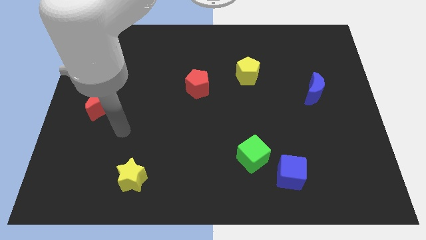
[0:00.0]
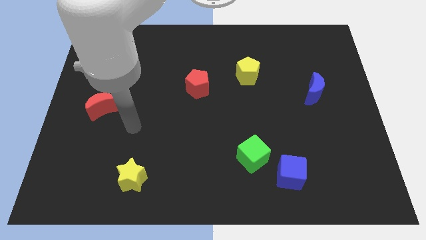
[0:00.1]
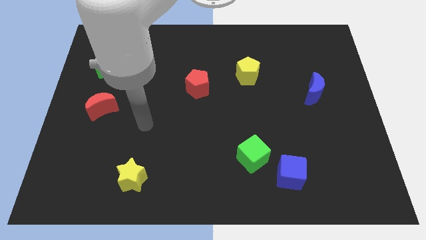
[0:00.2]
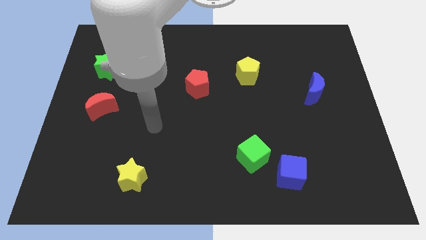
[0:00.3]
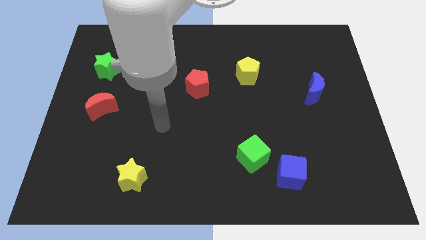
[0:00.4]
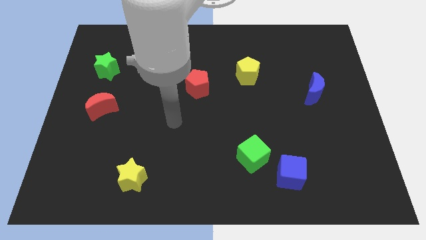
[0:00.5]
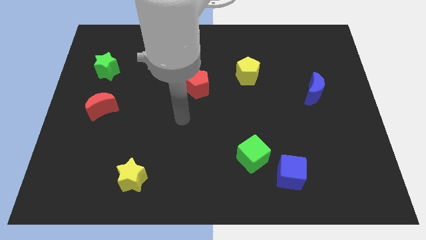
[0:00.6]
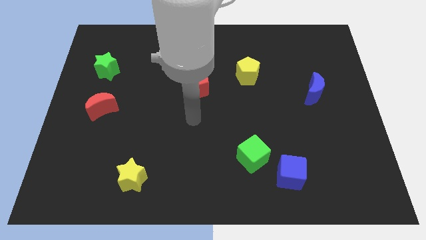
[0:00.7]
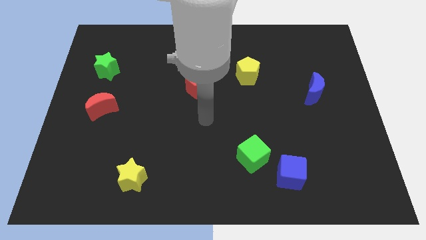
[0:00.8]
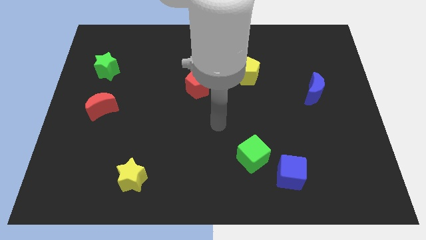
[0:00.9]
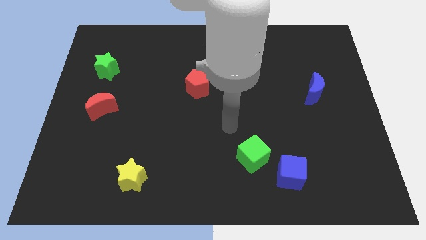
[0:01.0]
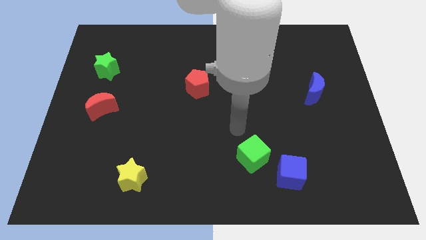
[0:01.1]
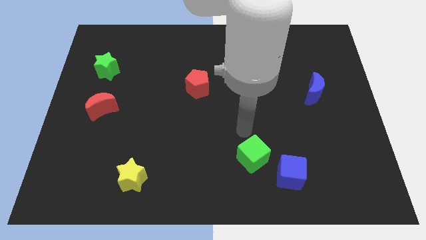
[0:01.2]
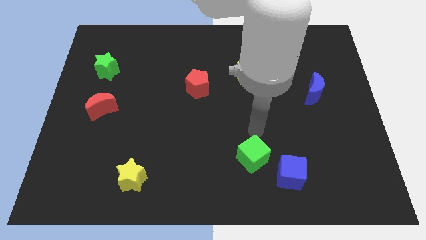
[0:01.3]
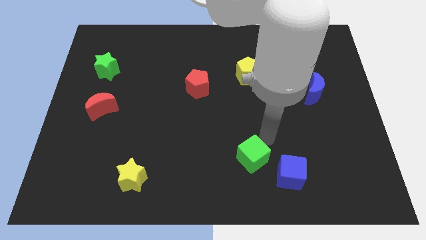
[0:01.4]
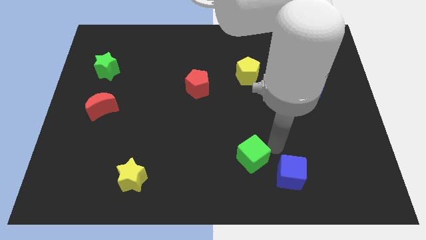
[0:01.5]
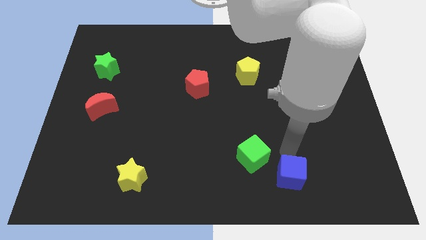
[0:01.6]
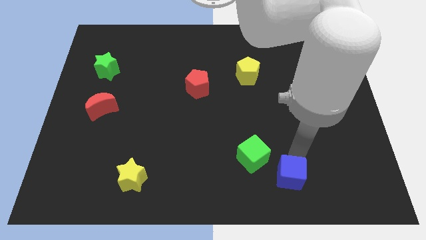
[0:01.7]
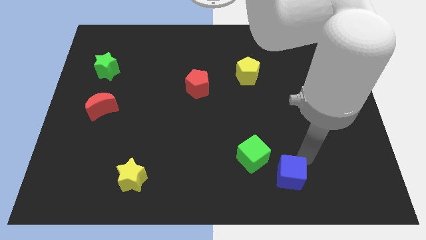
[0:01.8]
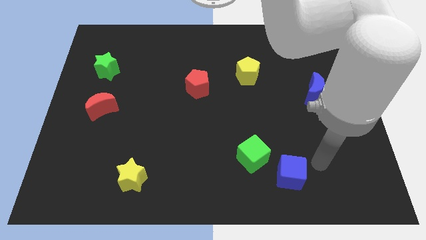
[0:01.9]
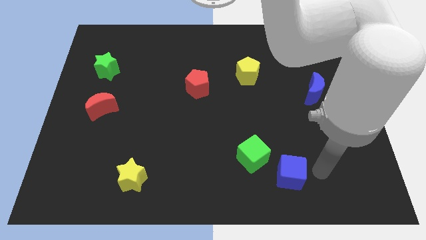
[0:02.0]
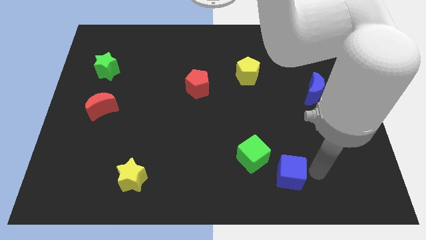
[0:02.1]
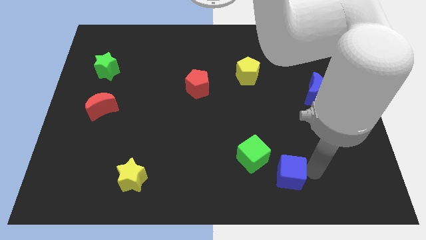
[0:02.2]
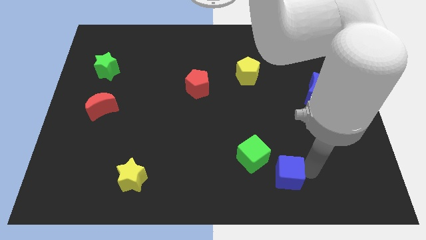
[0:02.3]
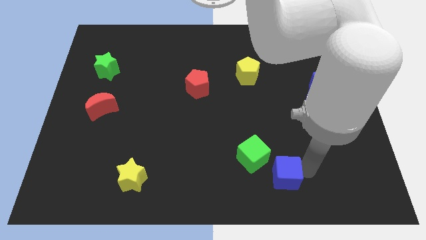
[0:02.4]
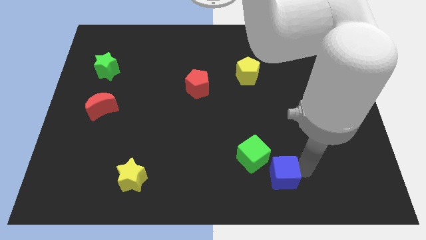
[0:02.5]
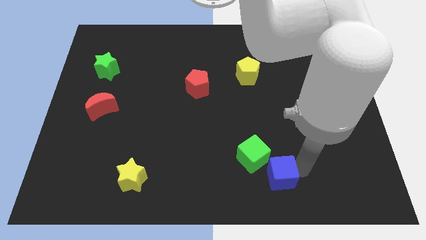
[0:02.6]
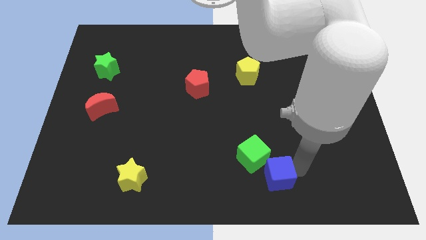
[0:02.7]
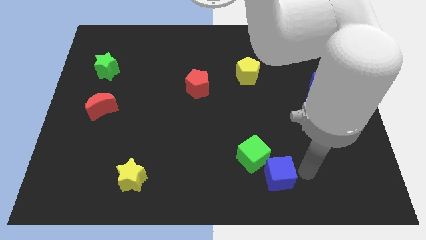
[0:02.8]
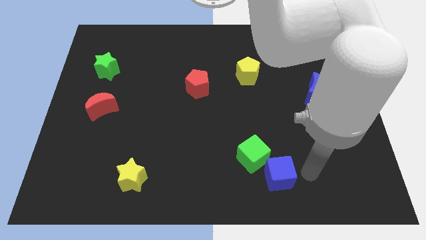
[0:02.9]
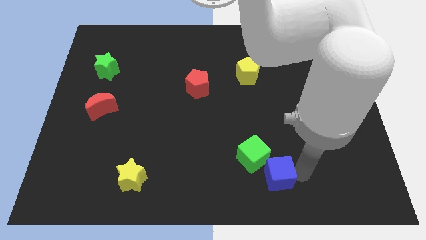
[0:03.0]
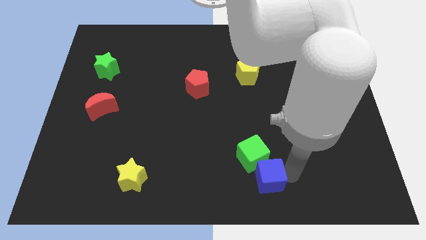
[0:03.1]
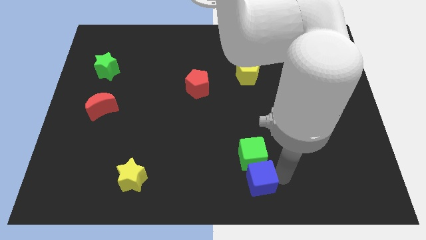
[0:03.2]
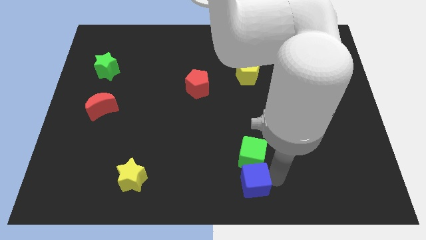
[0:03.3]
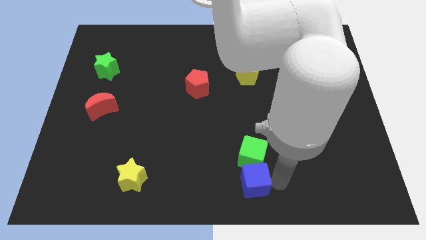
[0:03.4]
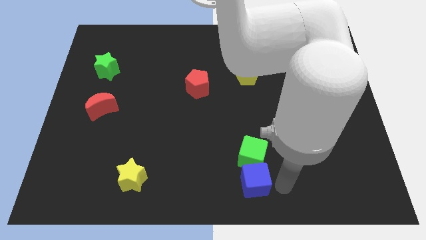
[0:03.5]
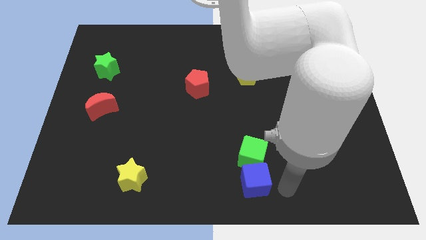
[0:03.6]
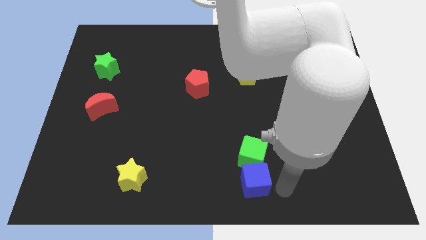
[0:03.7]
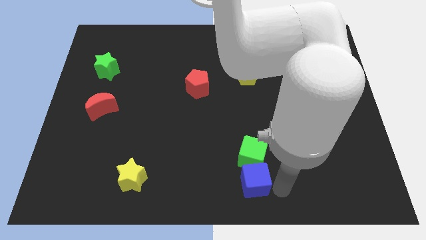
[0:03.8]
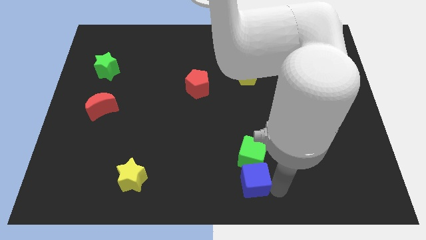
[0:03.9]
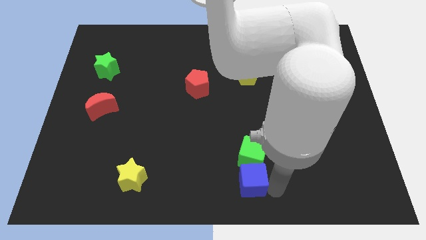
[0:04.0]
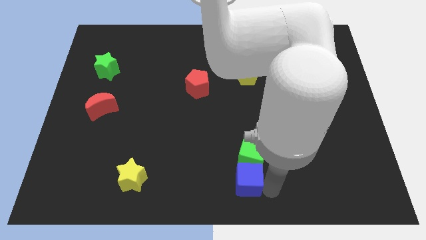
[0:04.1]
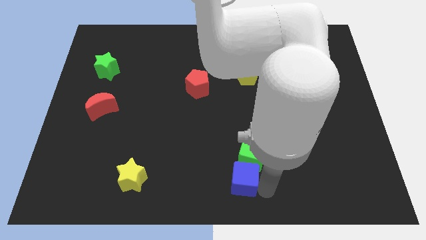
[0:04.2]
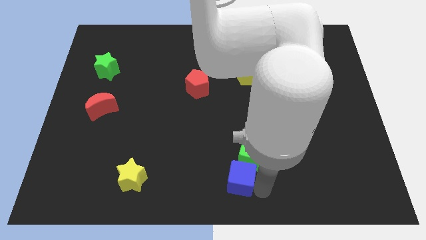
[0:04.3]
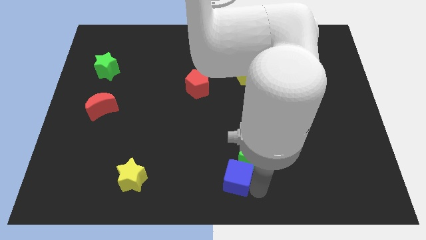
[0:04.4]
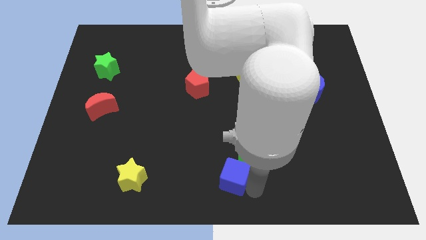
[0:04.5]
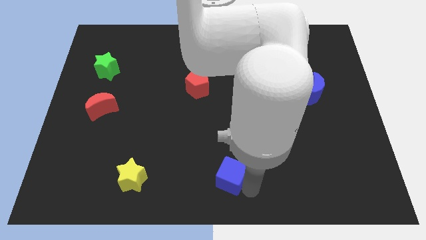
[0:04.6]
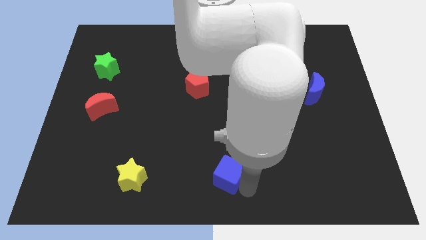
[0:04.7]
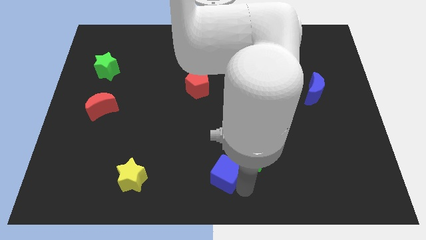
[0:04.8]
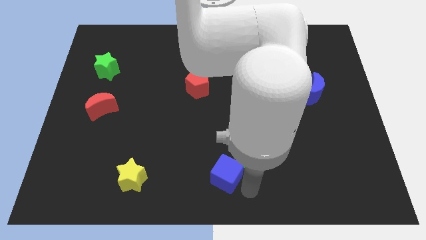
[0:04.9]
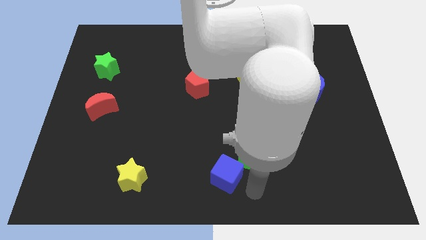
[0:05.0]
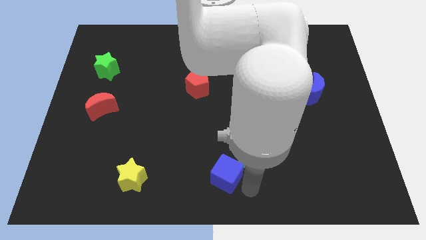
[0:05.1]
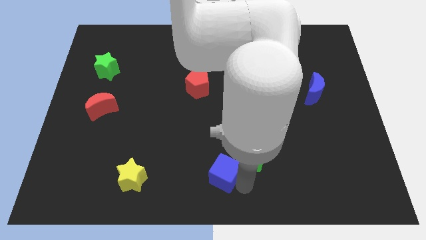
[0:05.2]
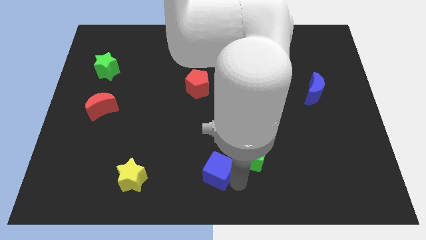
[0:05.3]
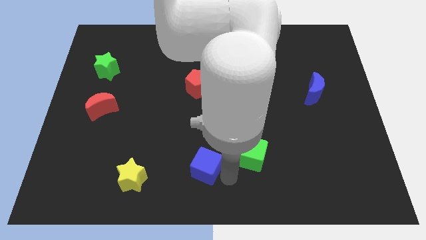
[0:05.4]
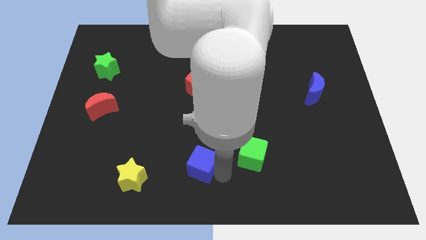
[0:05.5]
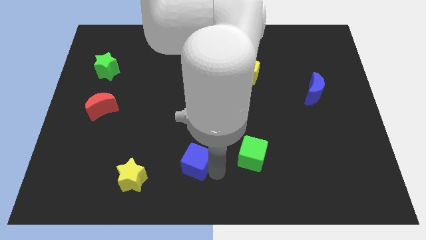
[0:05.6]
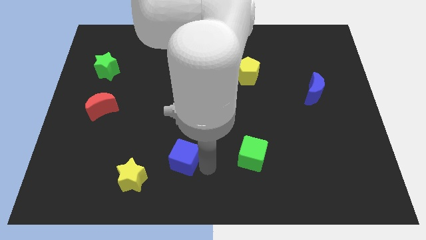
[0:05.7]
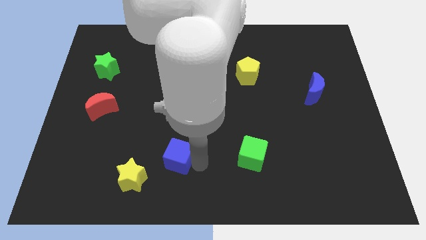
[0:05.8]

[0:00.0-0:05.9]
put the blue cube diagonally up and to the right of the yellow star

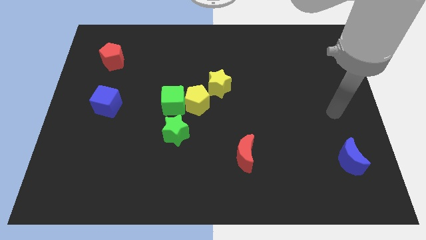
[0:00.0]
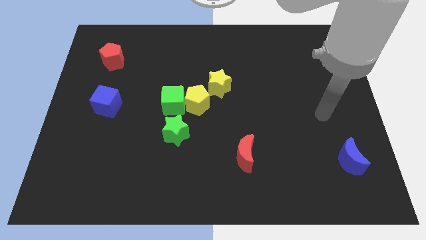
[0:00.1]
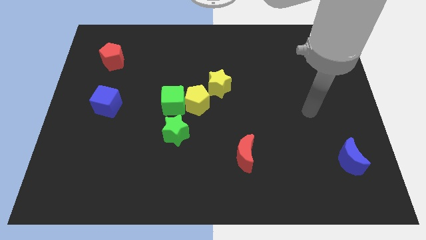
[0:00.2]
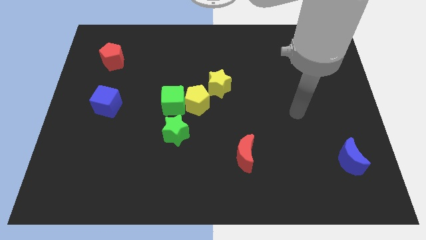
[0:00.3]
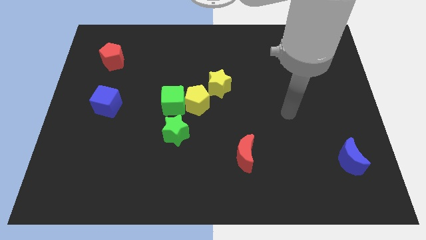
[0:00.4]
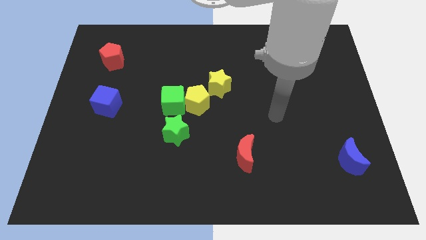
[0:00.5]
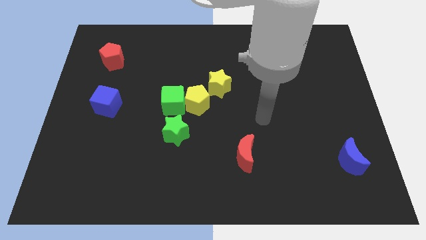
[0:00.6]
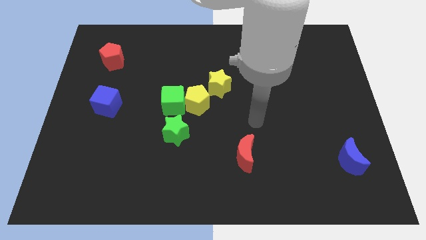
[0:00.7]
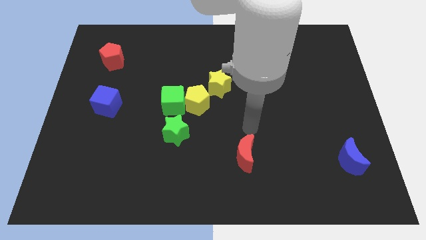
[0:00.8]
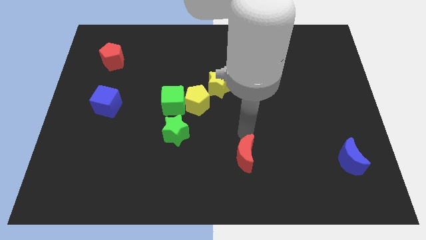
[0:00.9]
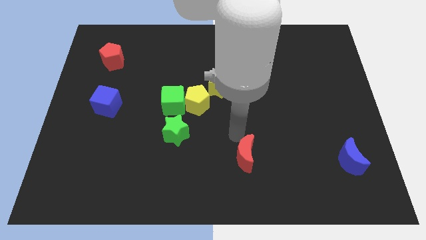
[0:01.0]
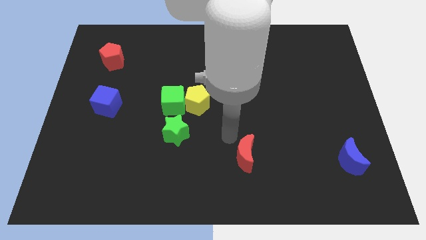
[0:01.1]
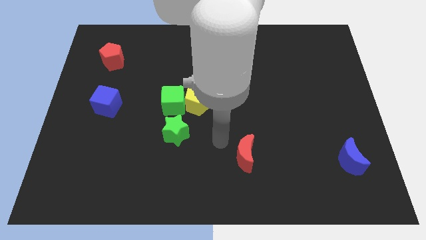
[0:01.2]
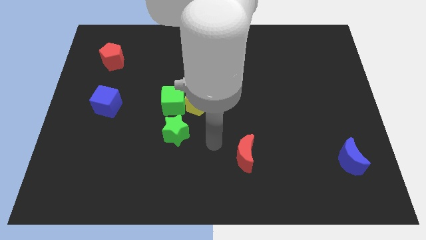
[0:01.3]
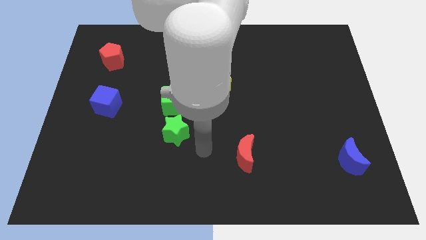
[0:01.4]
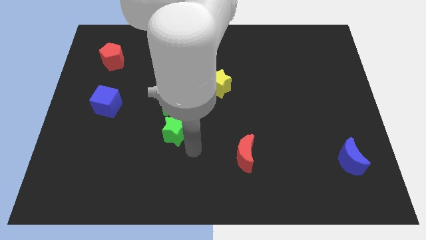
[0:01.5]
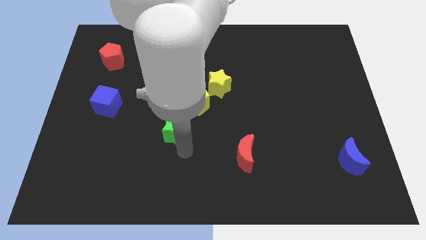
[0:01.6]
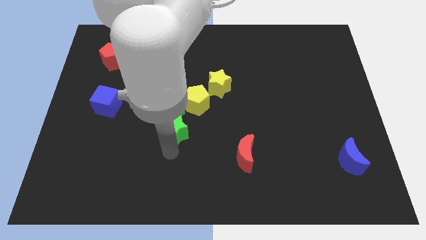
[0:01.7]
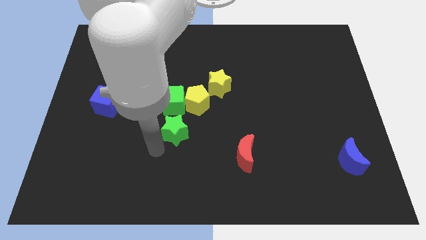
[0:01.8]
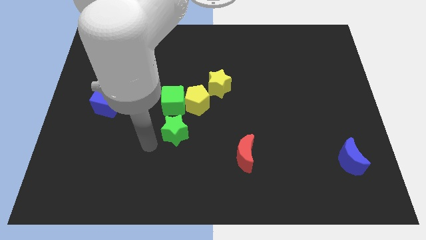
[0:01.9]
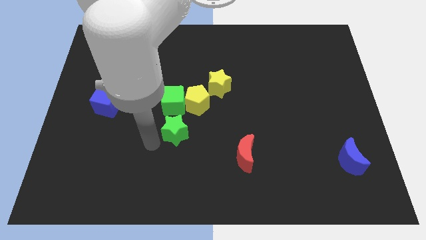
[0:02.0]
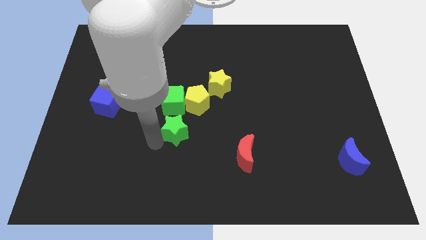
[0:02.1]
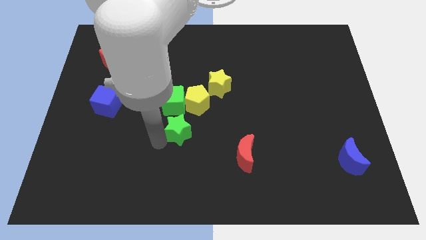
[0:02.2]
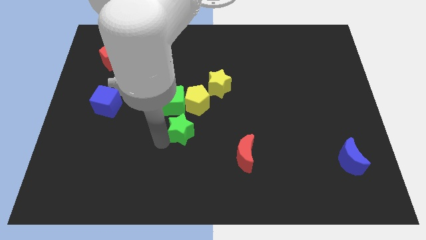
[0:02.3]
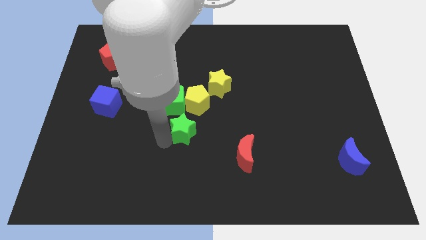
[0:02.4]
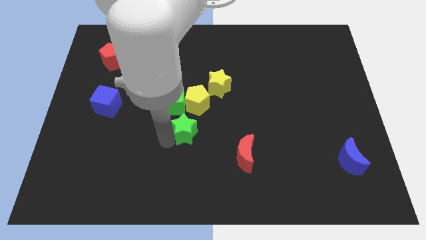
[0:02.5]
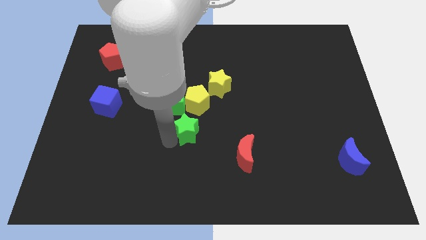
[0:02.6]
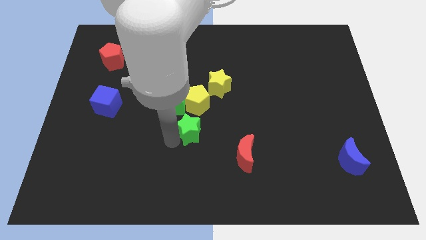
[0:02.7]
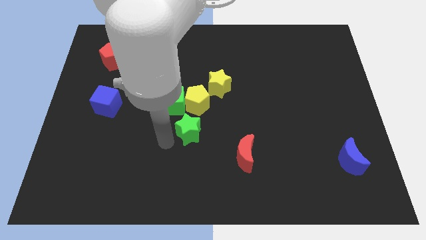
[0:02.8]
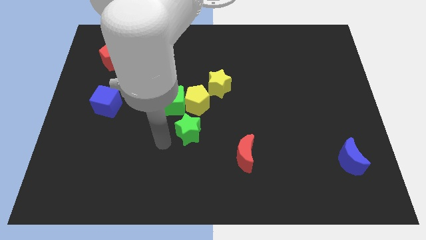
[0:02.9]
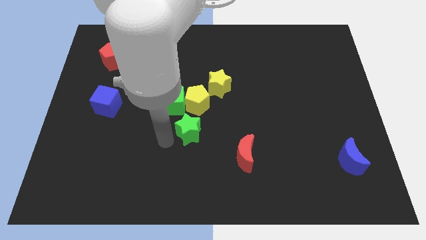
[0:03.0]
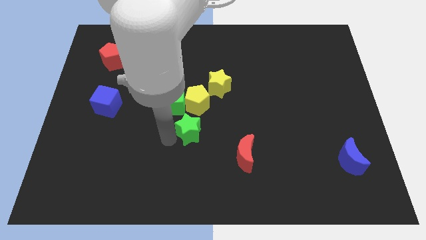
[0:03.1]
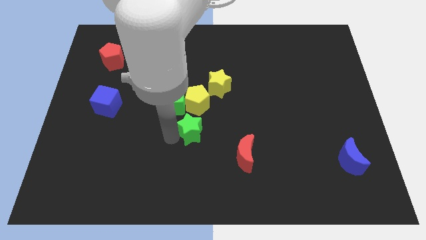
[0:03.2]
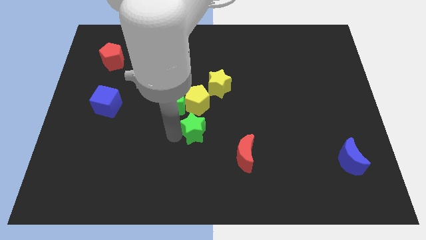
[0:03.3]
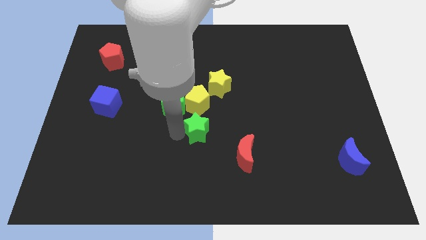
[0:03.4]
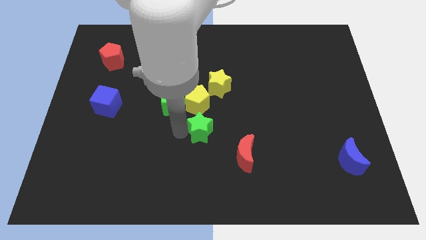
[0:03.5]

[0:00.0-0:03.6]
push the green star to the bottom of the yellow star
